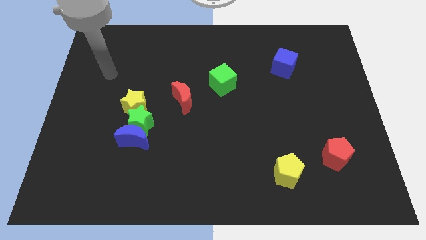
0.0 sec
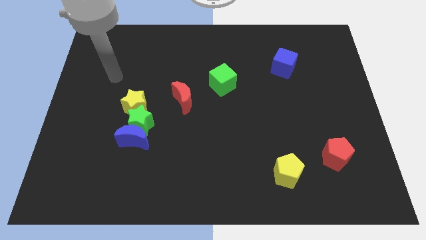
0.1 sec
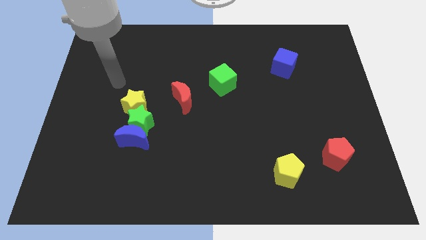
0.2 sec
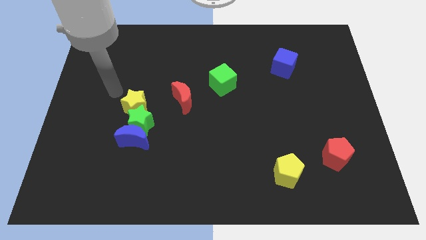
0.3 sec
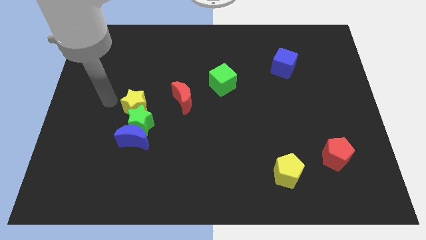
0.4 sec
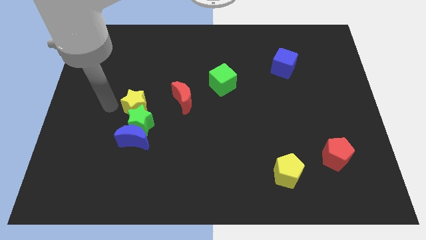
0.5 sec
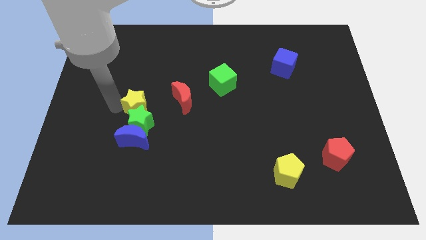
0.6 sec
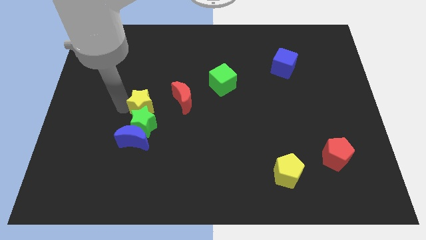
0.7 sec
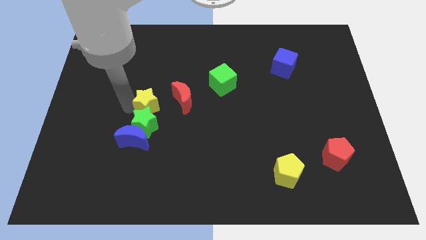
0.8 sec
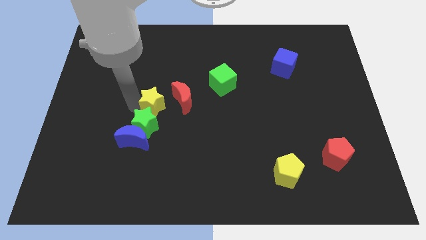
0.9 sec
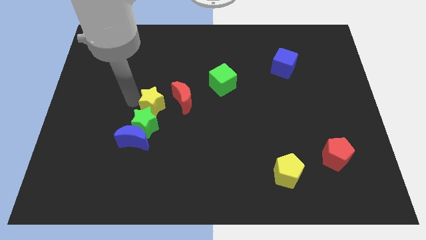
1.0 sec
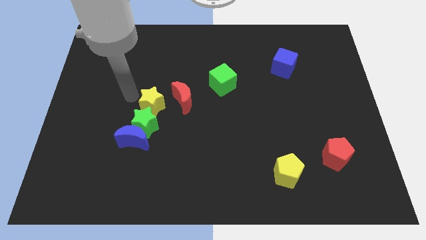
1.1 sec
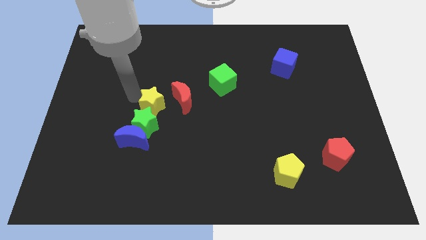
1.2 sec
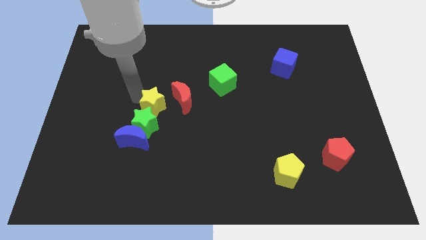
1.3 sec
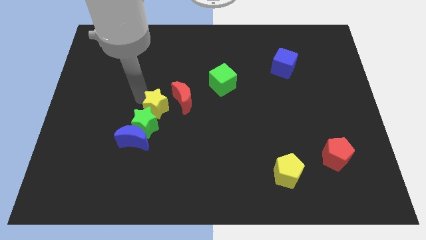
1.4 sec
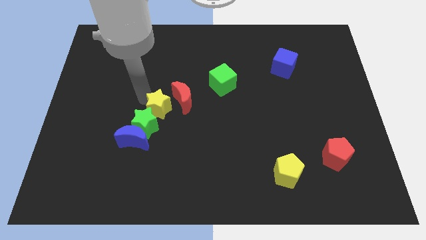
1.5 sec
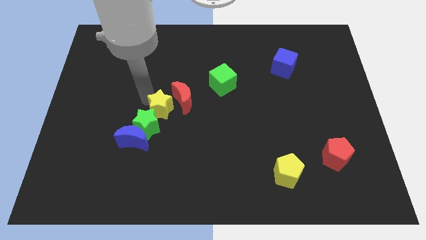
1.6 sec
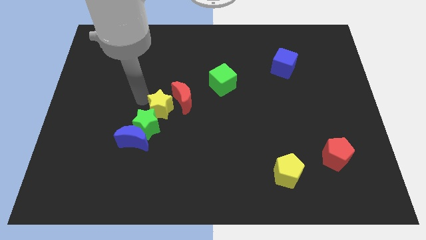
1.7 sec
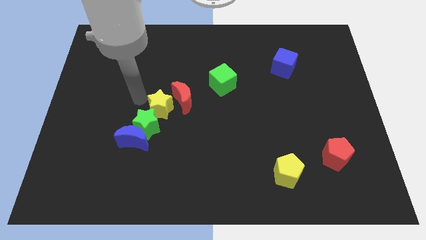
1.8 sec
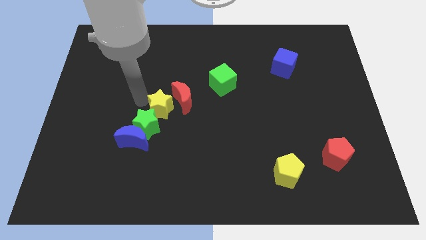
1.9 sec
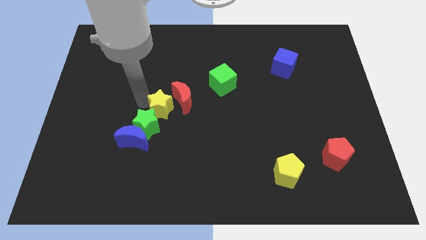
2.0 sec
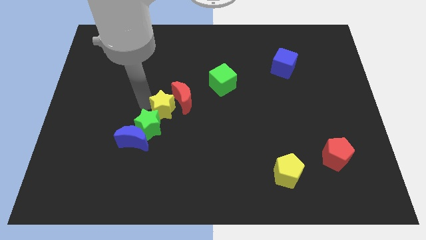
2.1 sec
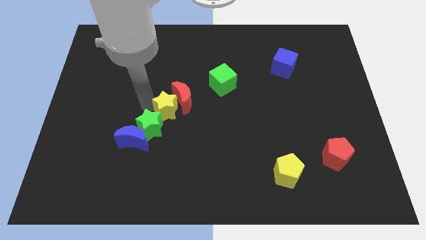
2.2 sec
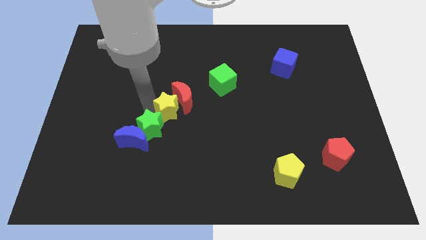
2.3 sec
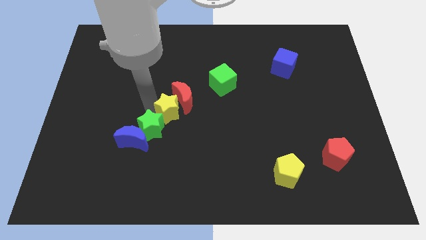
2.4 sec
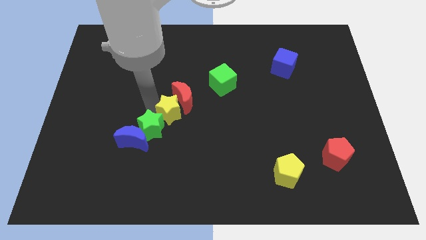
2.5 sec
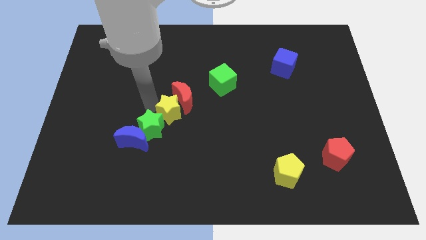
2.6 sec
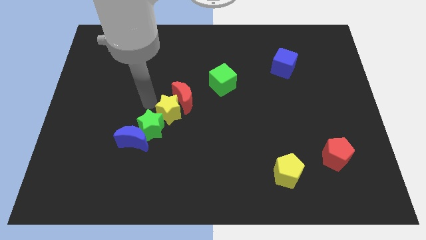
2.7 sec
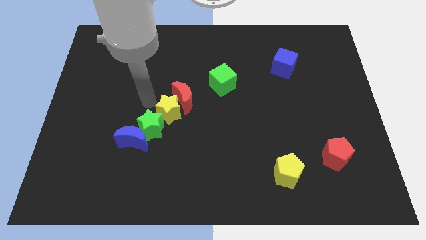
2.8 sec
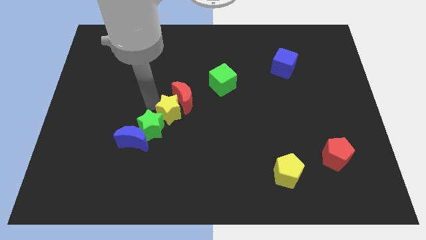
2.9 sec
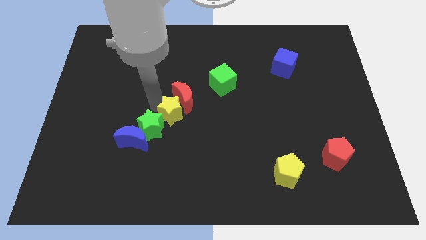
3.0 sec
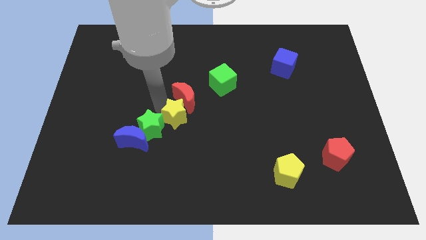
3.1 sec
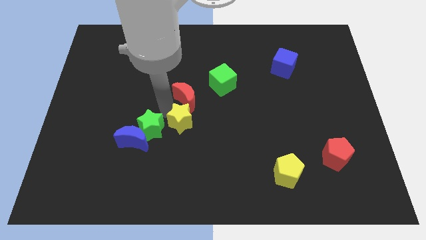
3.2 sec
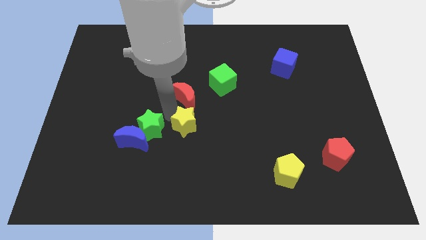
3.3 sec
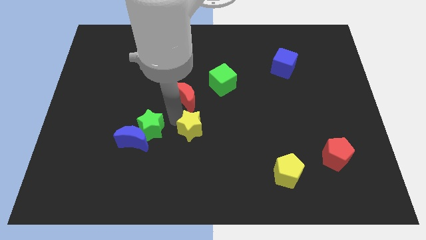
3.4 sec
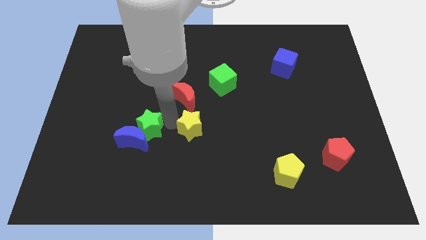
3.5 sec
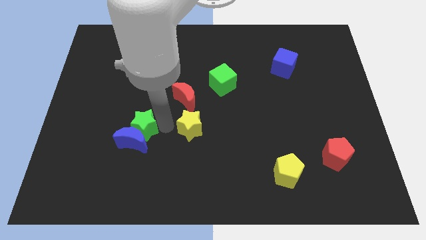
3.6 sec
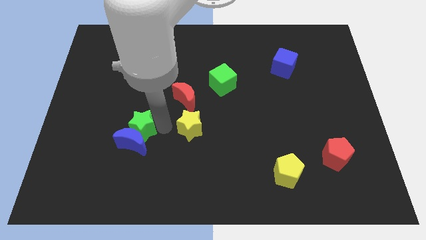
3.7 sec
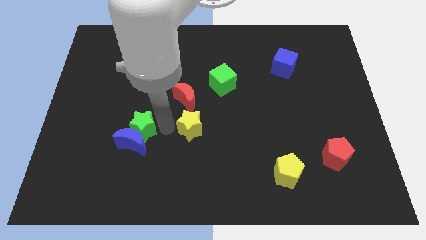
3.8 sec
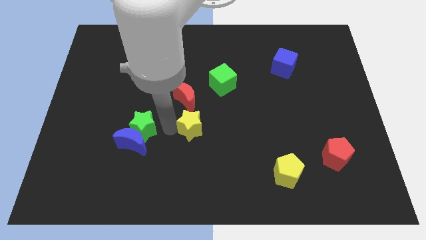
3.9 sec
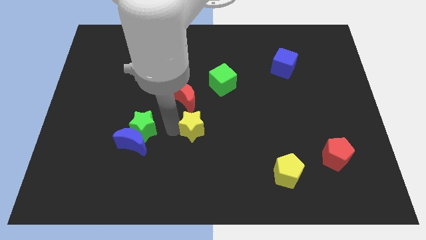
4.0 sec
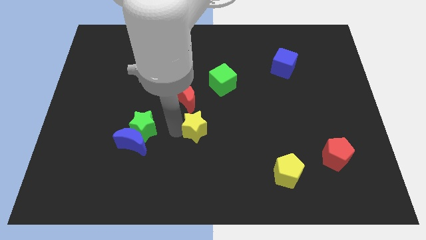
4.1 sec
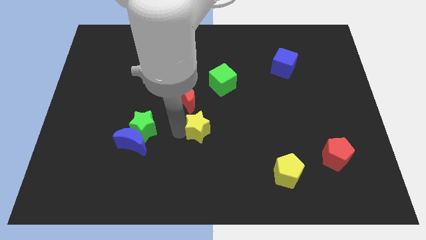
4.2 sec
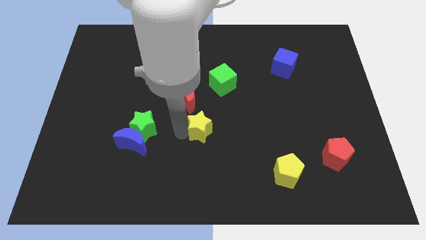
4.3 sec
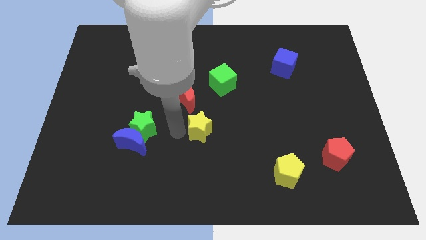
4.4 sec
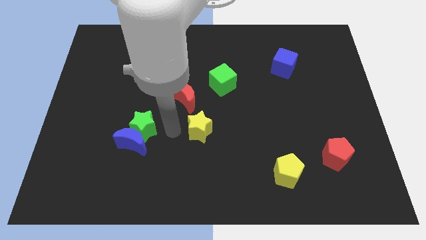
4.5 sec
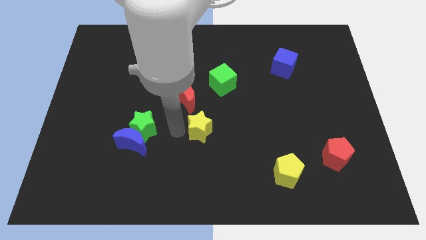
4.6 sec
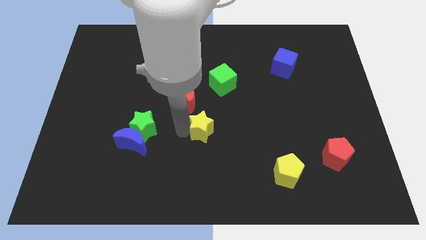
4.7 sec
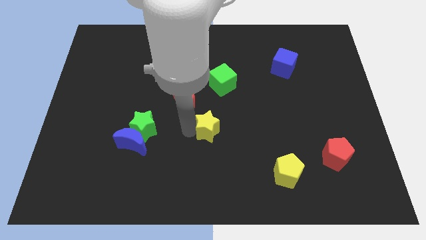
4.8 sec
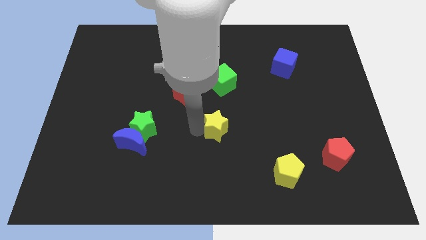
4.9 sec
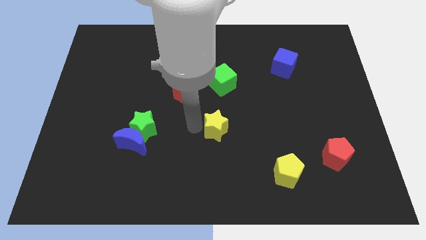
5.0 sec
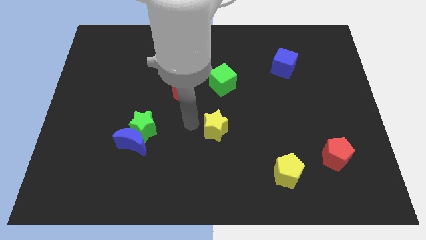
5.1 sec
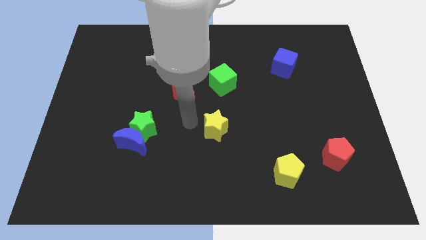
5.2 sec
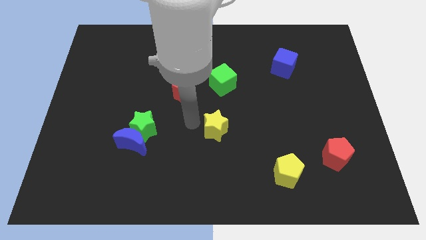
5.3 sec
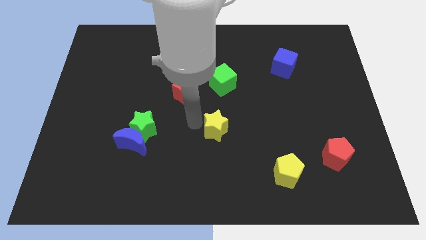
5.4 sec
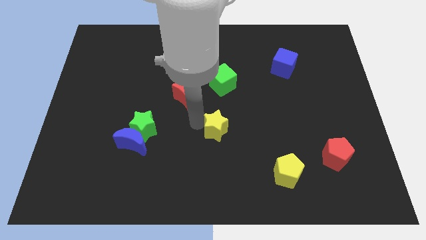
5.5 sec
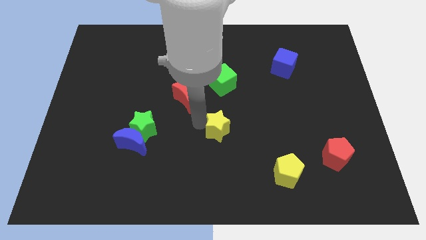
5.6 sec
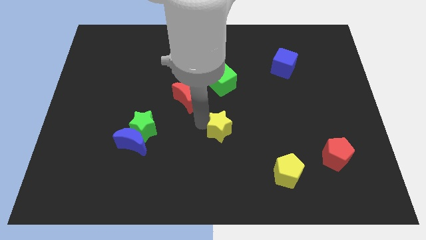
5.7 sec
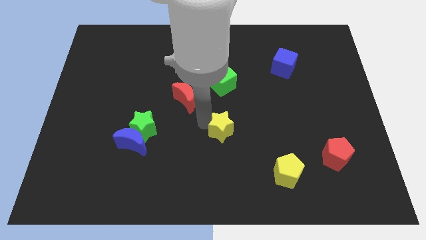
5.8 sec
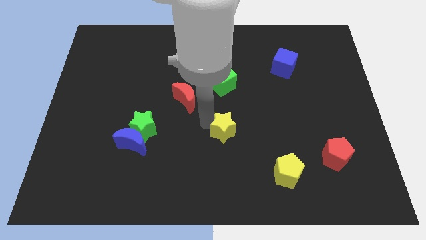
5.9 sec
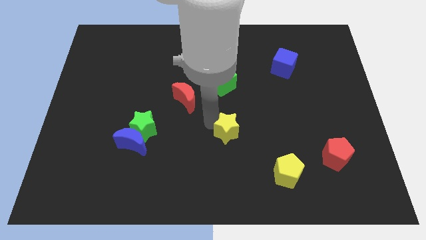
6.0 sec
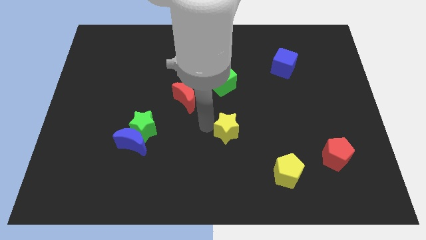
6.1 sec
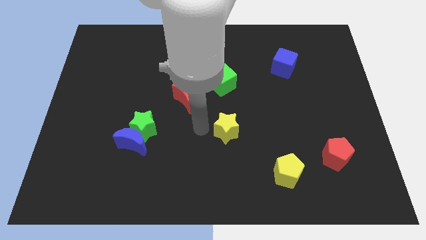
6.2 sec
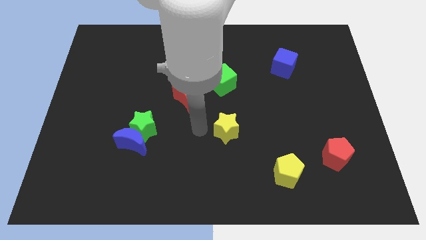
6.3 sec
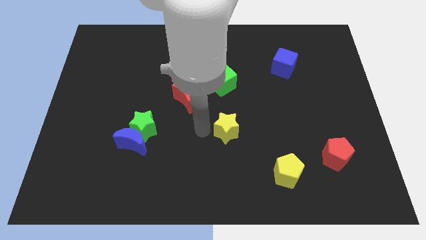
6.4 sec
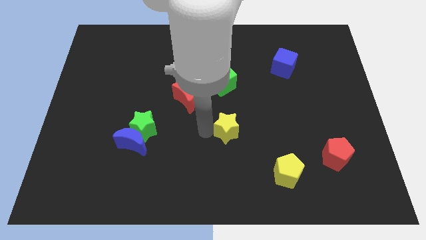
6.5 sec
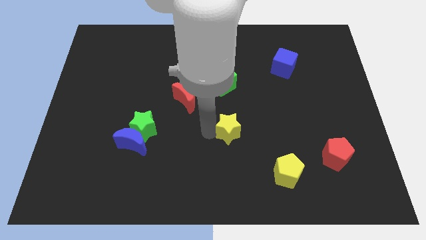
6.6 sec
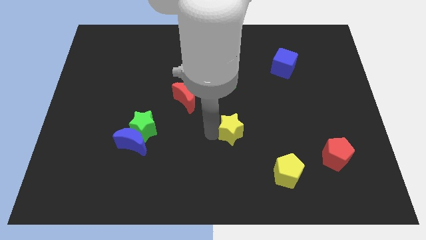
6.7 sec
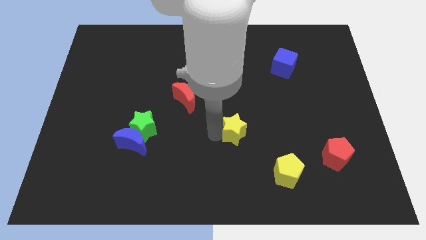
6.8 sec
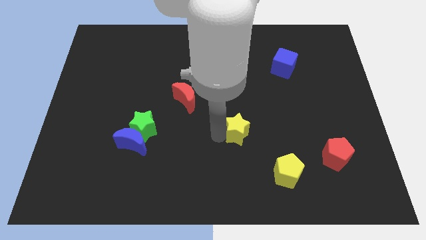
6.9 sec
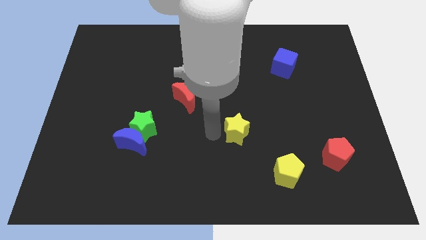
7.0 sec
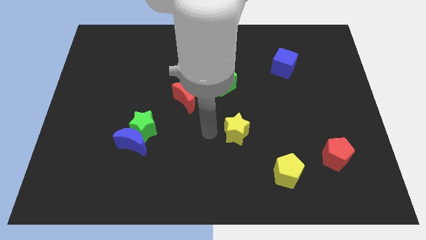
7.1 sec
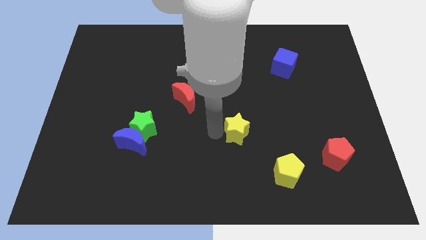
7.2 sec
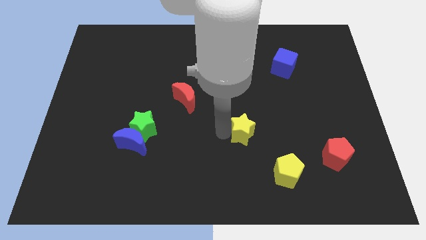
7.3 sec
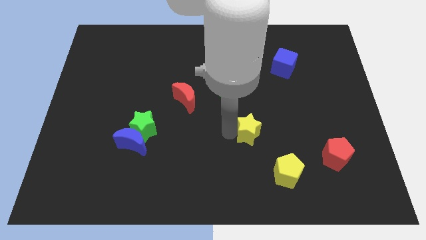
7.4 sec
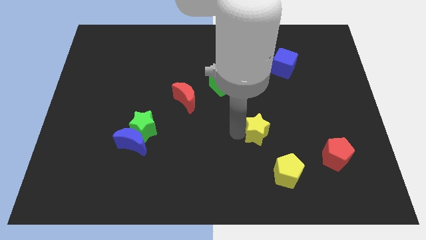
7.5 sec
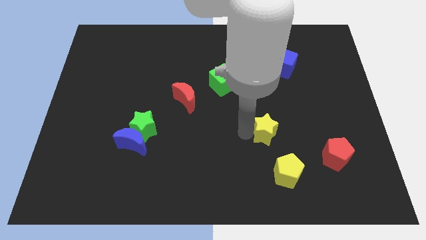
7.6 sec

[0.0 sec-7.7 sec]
slide the yellow star to the top of the yellow pentagon
